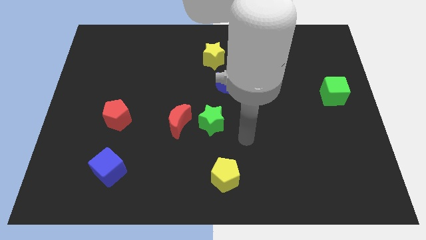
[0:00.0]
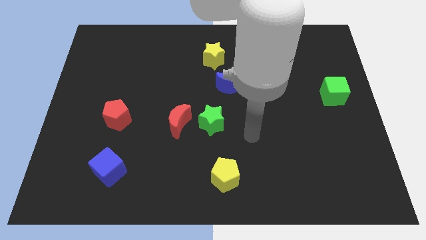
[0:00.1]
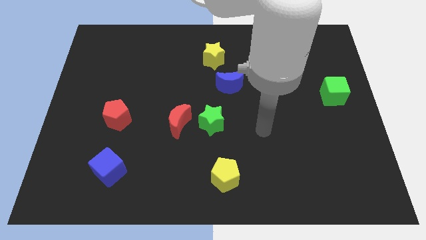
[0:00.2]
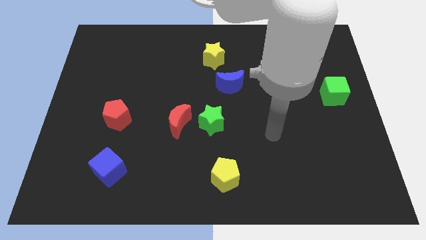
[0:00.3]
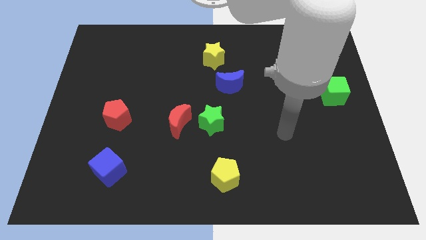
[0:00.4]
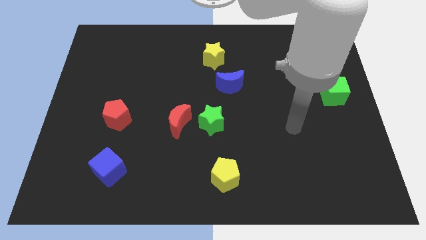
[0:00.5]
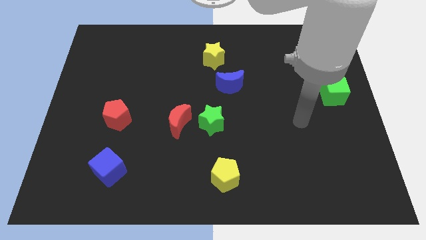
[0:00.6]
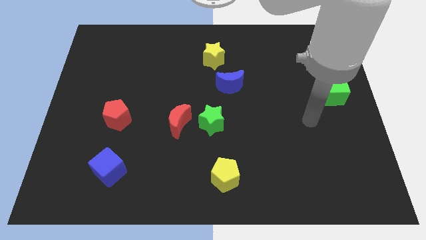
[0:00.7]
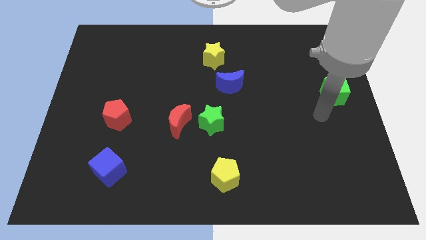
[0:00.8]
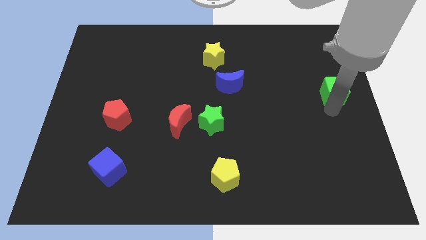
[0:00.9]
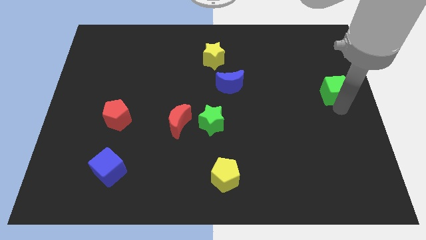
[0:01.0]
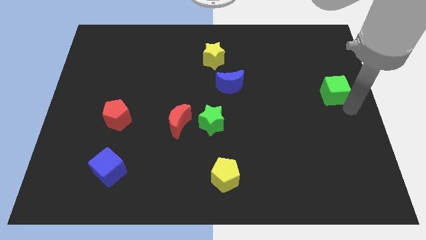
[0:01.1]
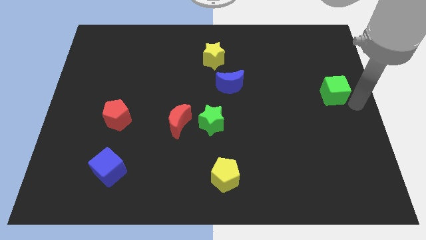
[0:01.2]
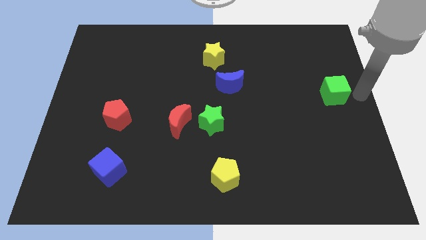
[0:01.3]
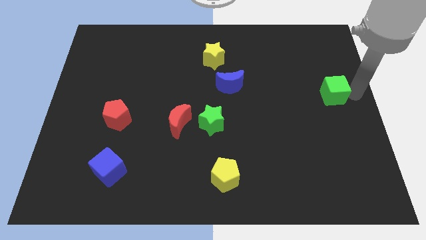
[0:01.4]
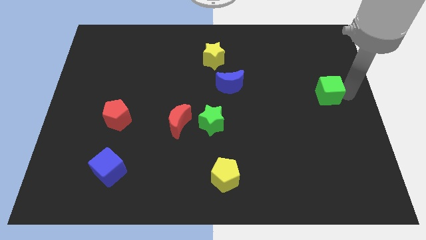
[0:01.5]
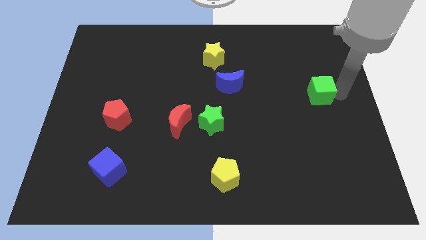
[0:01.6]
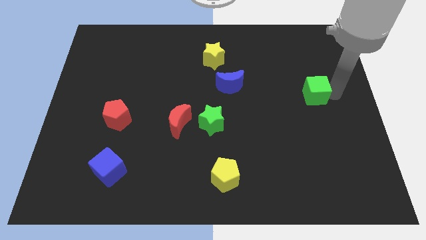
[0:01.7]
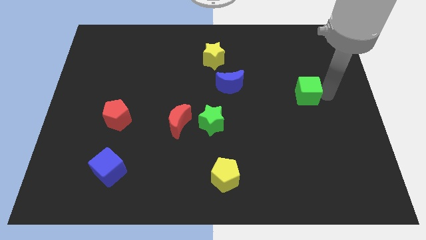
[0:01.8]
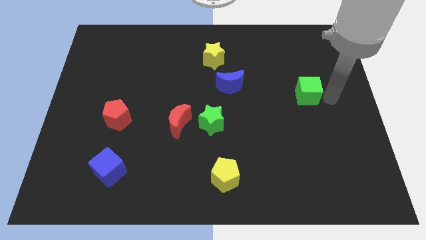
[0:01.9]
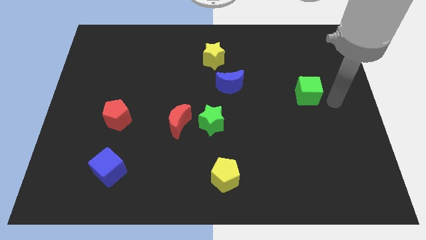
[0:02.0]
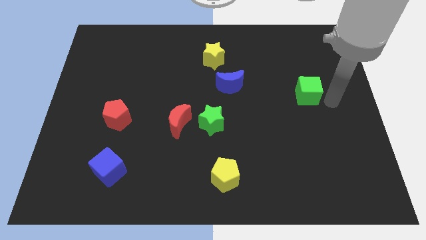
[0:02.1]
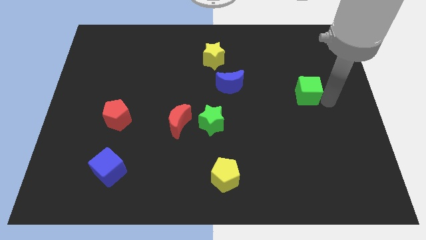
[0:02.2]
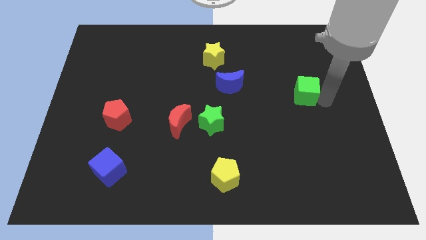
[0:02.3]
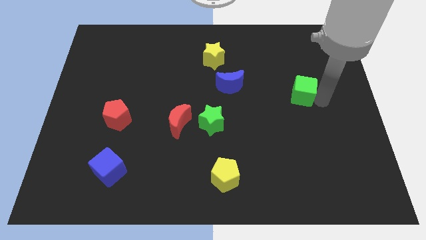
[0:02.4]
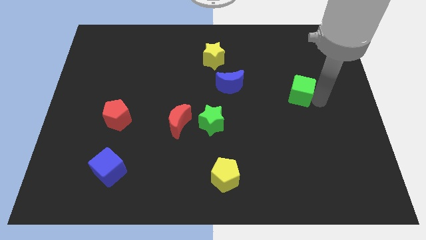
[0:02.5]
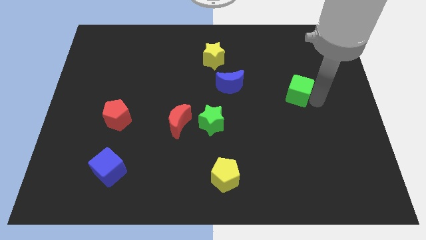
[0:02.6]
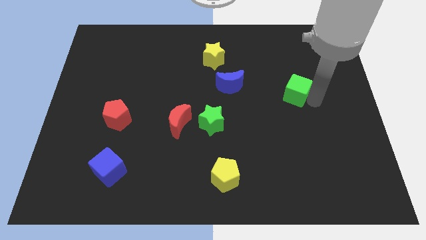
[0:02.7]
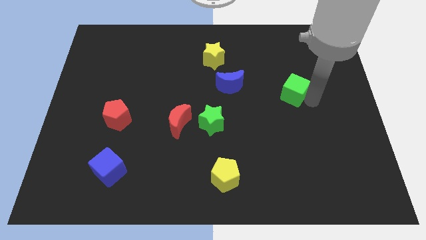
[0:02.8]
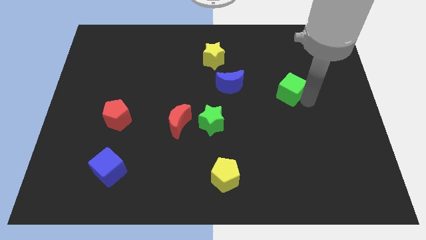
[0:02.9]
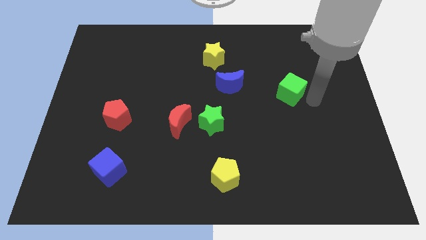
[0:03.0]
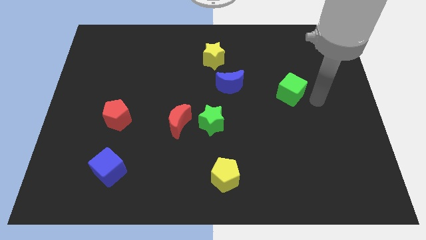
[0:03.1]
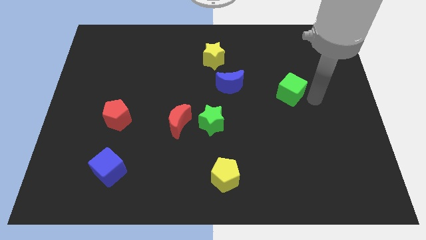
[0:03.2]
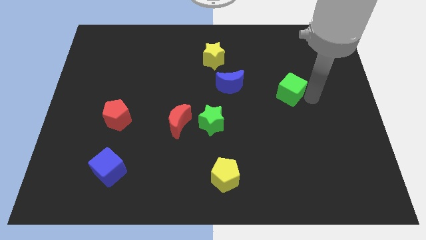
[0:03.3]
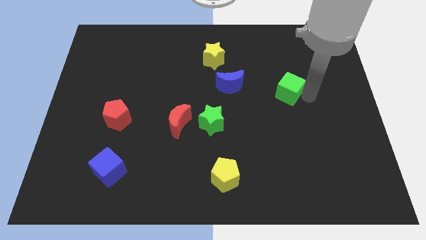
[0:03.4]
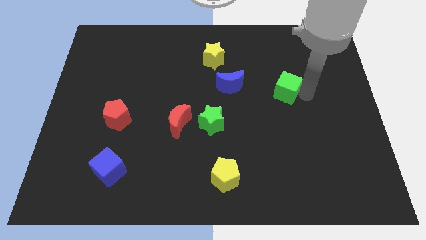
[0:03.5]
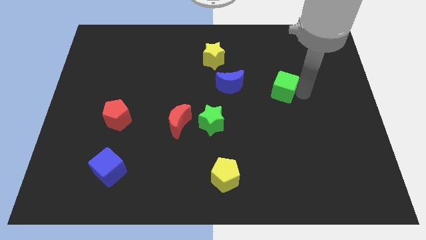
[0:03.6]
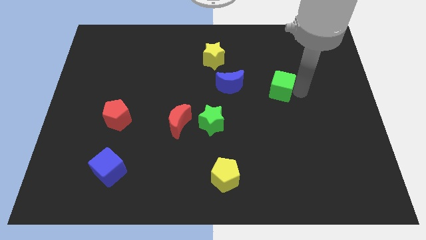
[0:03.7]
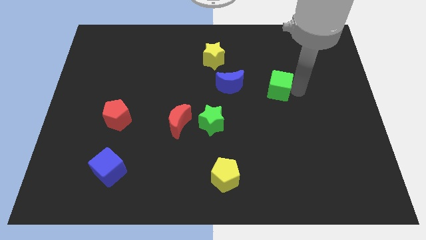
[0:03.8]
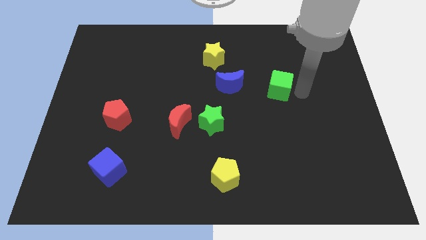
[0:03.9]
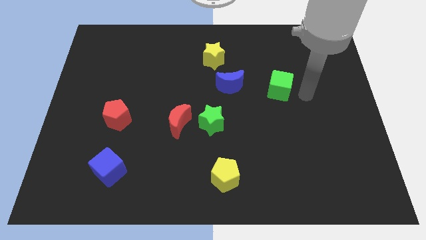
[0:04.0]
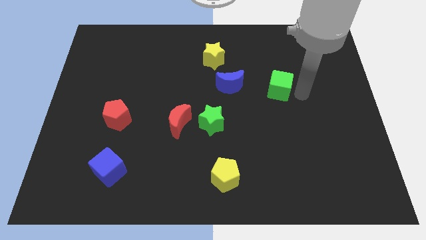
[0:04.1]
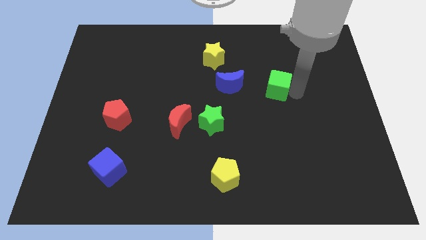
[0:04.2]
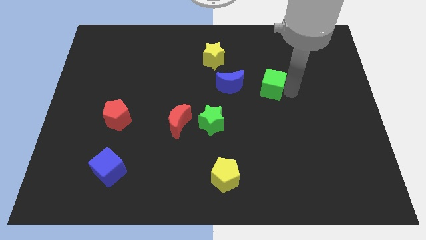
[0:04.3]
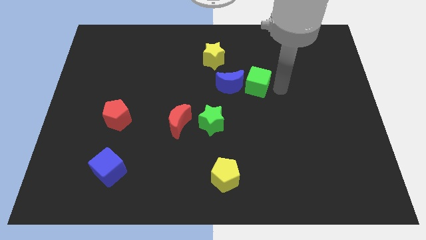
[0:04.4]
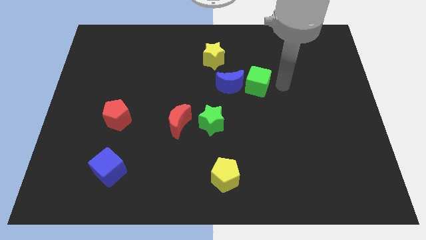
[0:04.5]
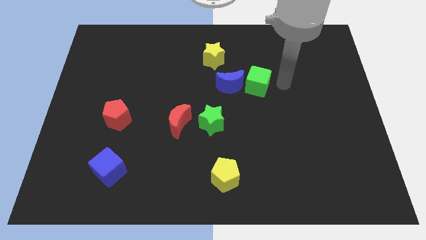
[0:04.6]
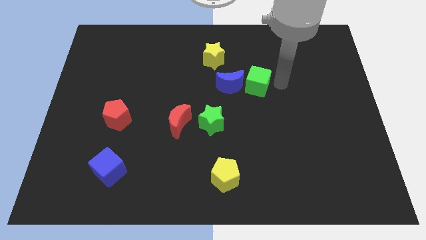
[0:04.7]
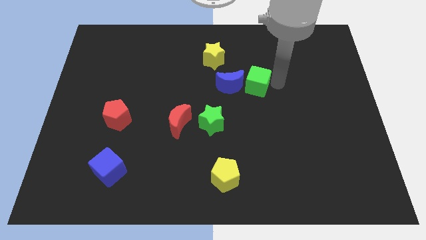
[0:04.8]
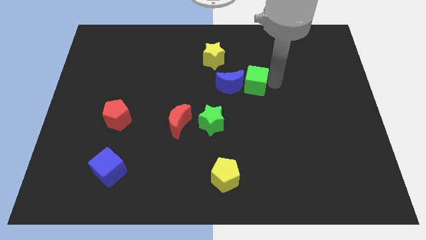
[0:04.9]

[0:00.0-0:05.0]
push the green cube next to the blue moon

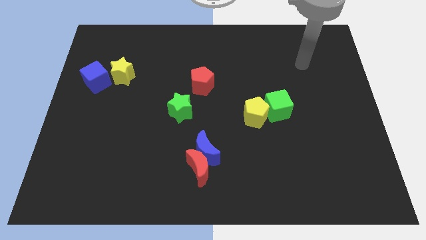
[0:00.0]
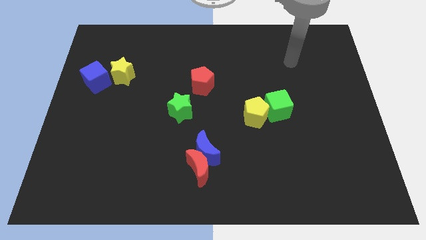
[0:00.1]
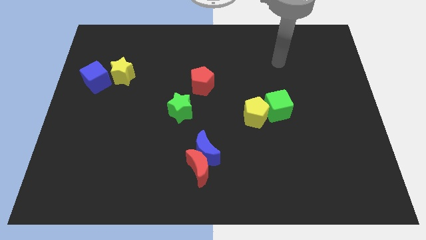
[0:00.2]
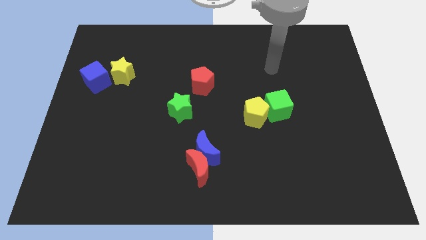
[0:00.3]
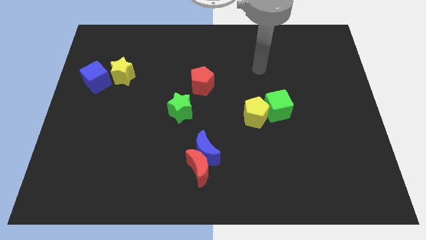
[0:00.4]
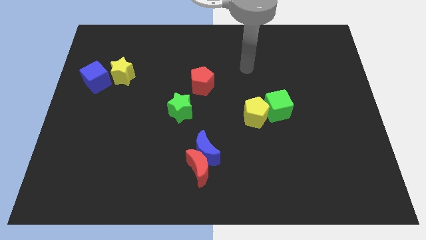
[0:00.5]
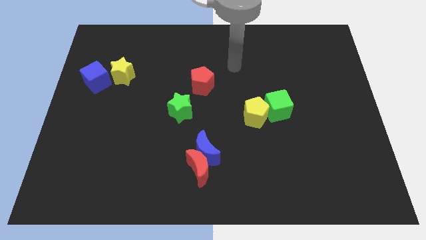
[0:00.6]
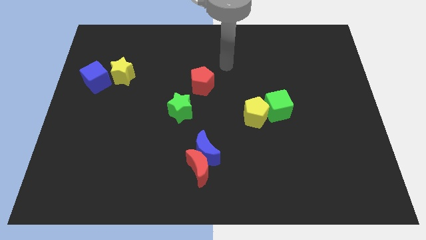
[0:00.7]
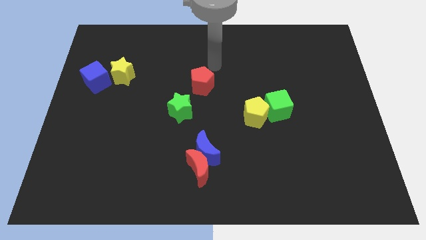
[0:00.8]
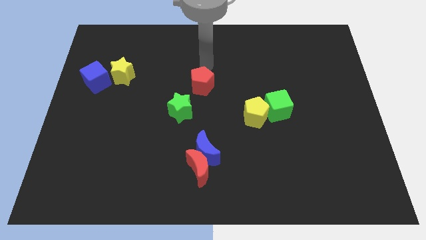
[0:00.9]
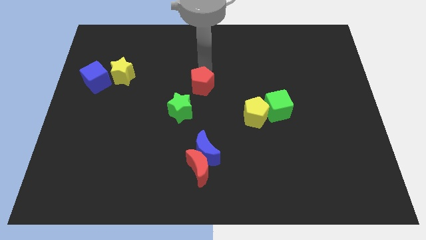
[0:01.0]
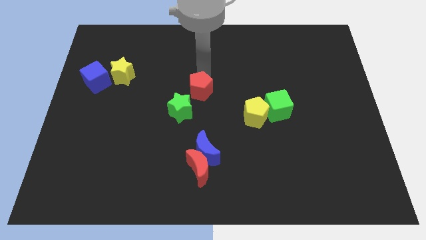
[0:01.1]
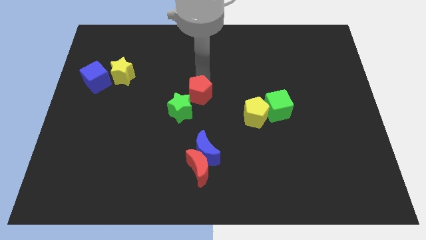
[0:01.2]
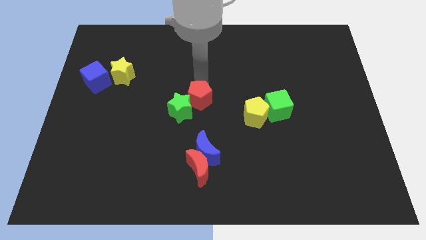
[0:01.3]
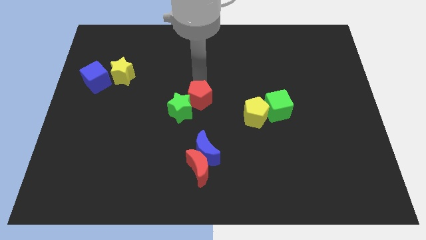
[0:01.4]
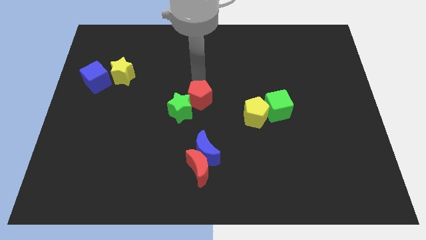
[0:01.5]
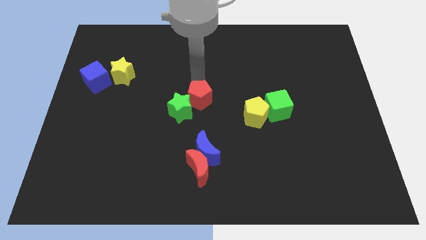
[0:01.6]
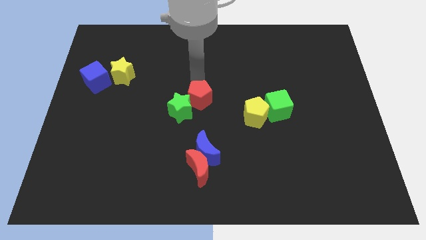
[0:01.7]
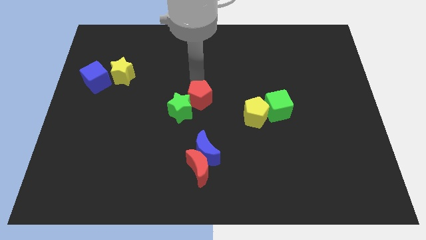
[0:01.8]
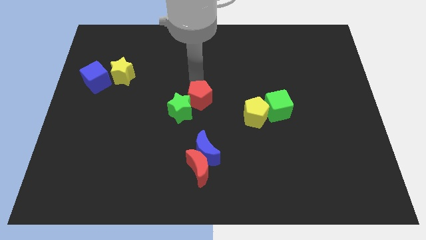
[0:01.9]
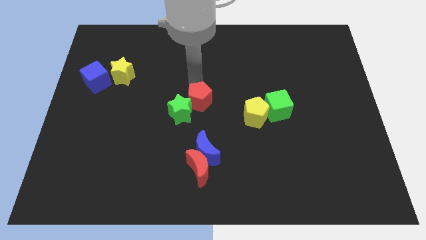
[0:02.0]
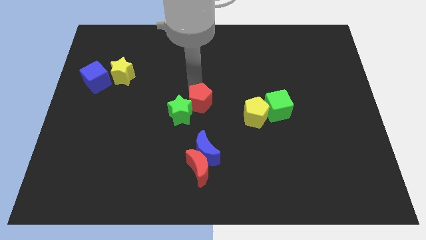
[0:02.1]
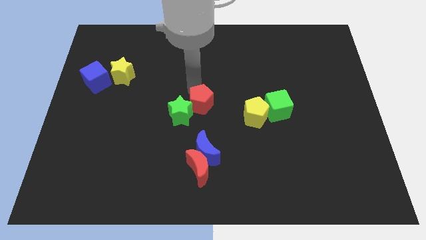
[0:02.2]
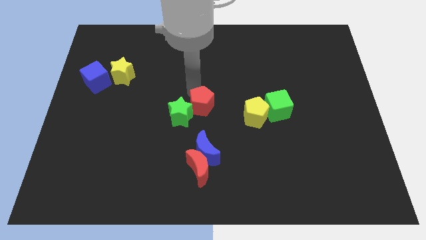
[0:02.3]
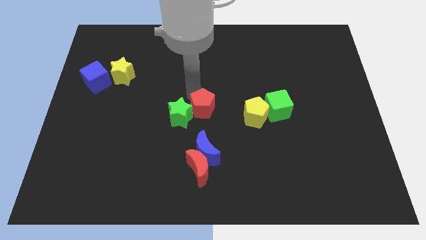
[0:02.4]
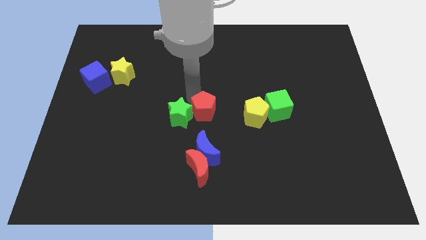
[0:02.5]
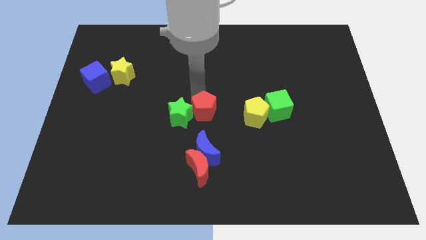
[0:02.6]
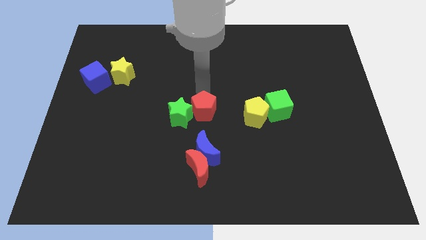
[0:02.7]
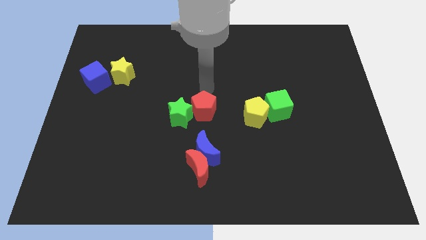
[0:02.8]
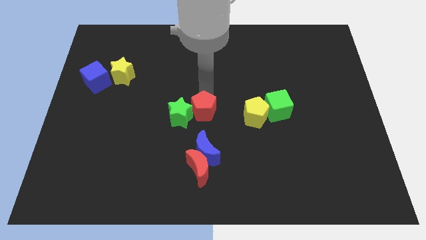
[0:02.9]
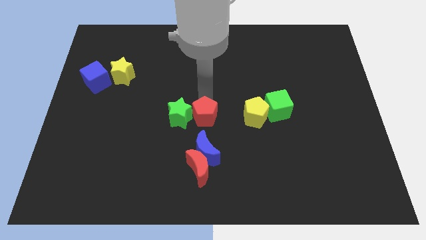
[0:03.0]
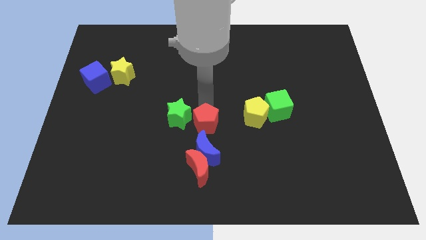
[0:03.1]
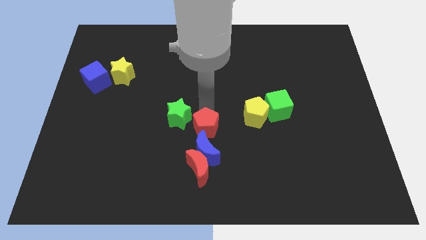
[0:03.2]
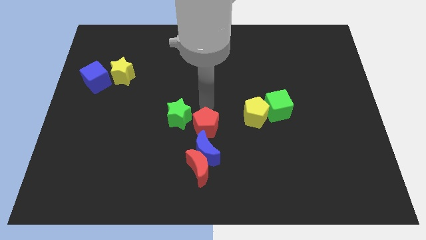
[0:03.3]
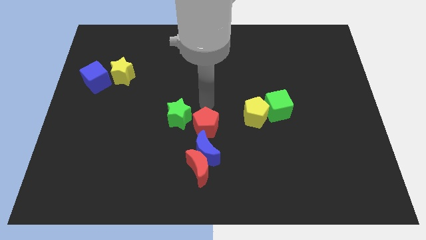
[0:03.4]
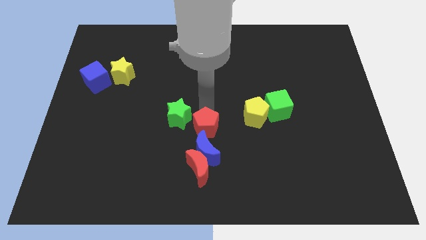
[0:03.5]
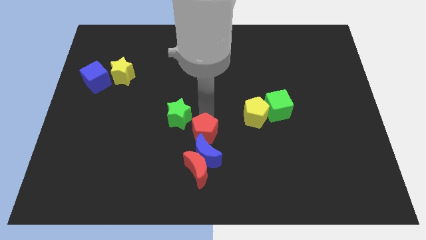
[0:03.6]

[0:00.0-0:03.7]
put the red pentagon to the blue moon
